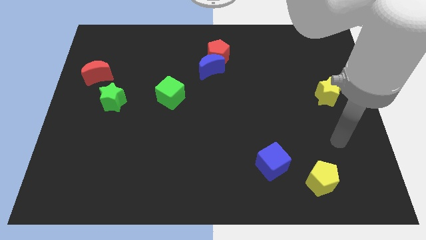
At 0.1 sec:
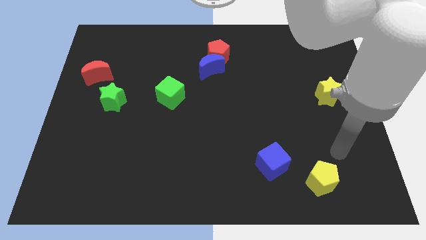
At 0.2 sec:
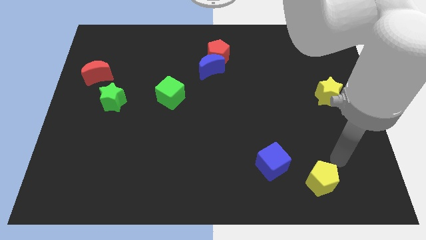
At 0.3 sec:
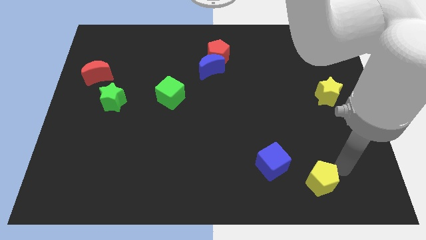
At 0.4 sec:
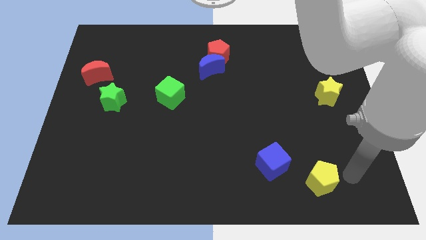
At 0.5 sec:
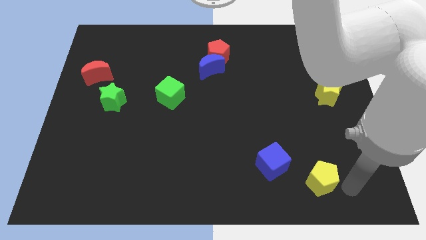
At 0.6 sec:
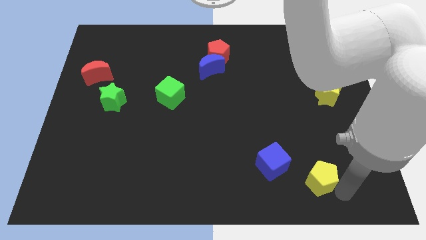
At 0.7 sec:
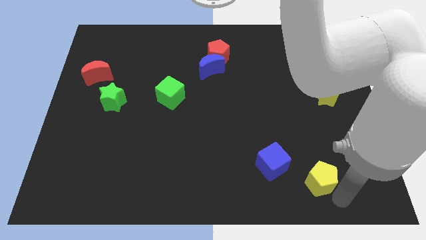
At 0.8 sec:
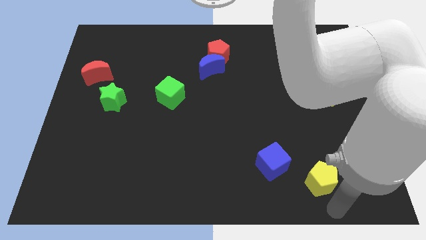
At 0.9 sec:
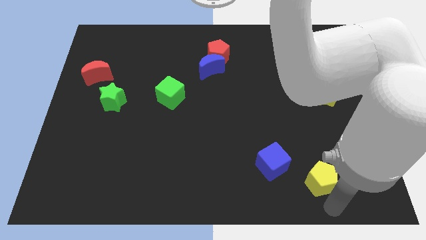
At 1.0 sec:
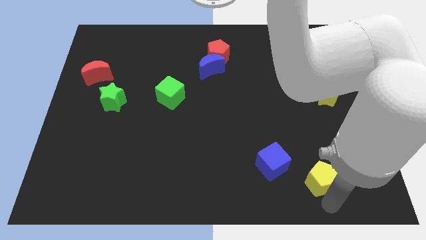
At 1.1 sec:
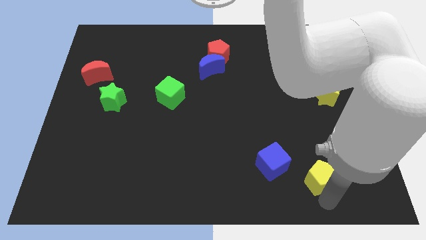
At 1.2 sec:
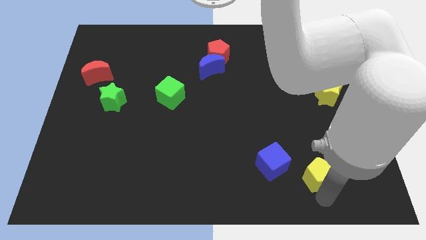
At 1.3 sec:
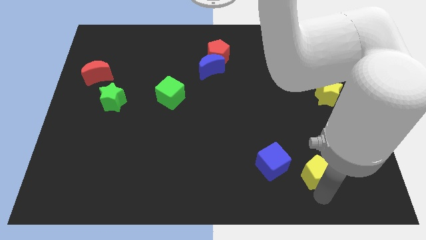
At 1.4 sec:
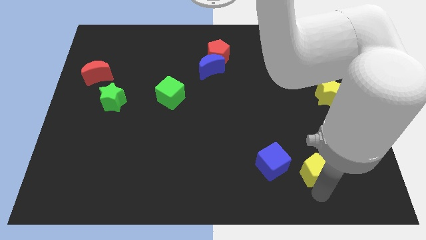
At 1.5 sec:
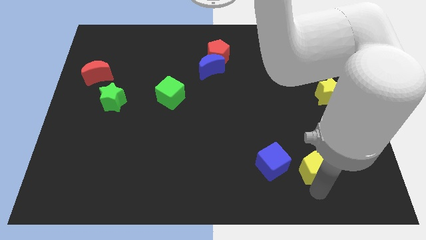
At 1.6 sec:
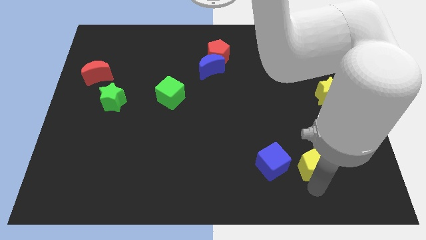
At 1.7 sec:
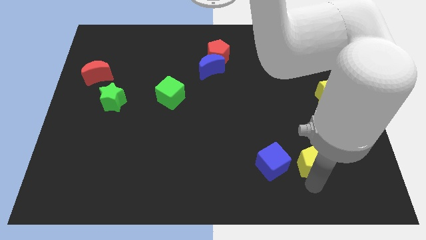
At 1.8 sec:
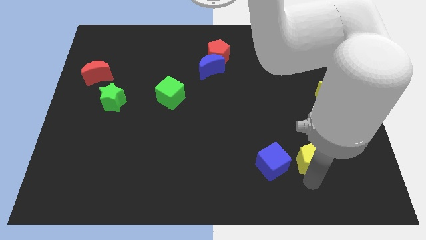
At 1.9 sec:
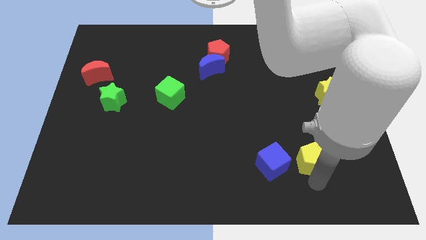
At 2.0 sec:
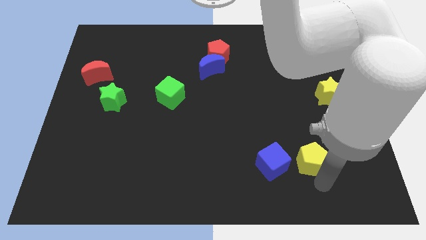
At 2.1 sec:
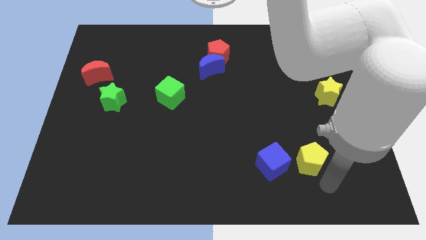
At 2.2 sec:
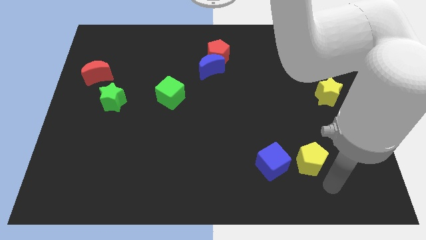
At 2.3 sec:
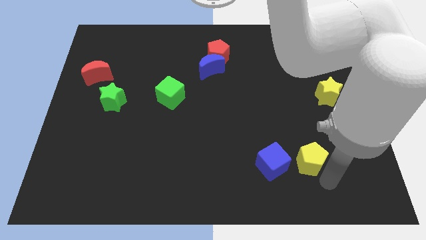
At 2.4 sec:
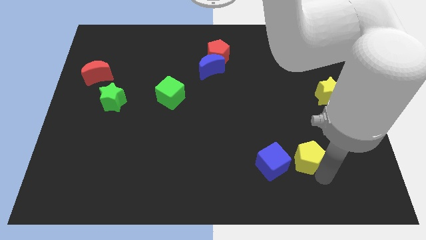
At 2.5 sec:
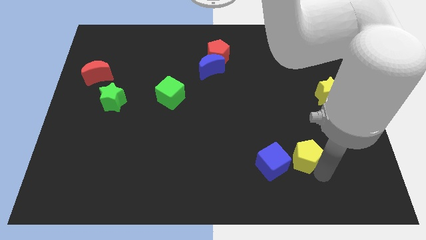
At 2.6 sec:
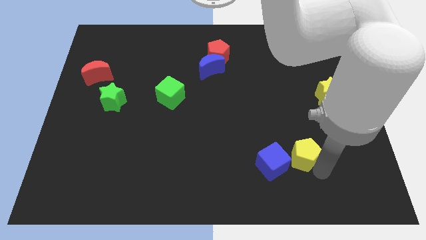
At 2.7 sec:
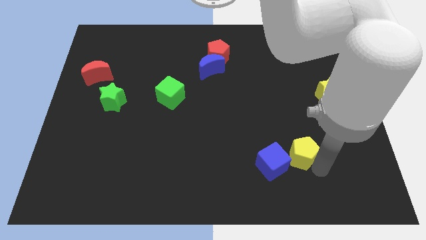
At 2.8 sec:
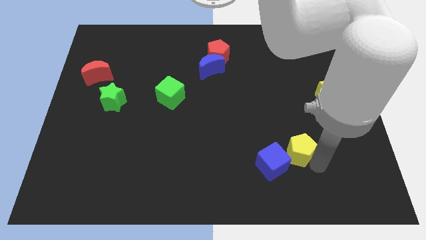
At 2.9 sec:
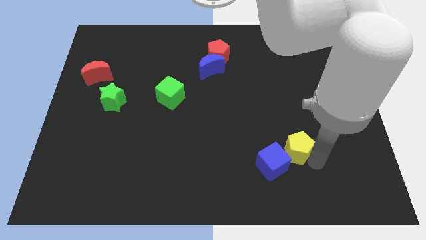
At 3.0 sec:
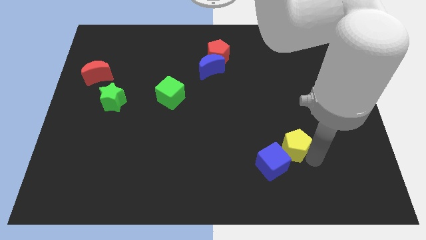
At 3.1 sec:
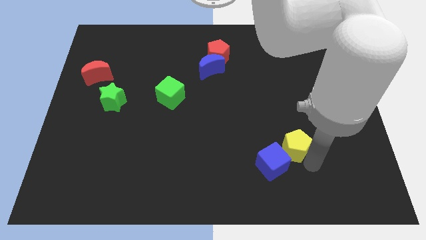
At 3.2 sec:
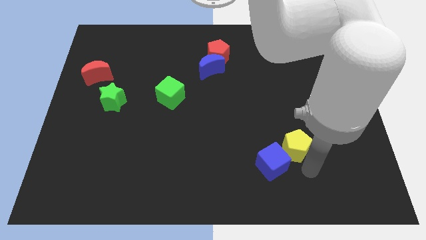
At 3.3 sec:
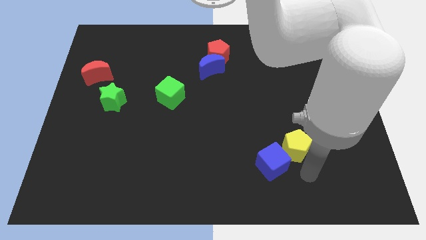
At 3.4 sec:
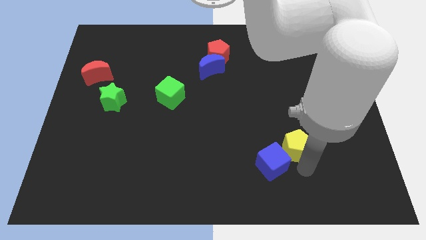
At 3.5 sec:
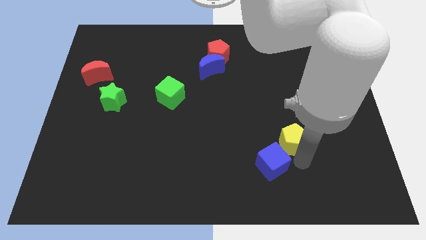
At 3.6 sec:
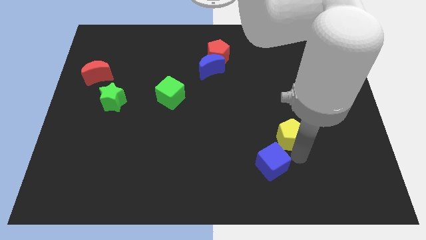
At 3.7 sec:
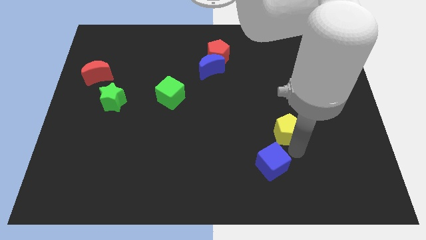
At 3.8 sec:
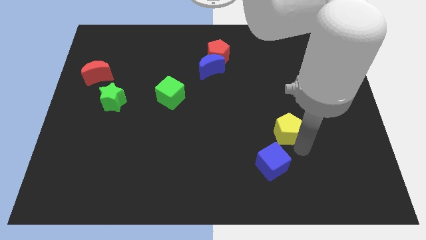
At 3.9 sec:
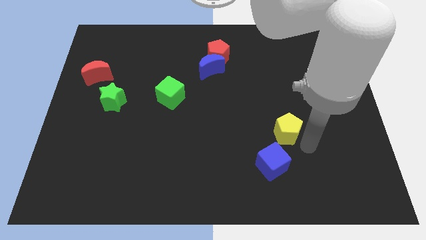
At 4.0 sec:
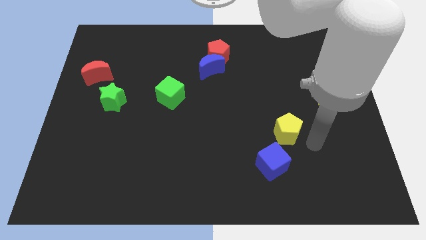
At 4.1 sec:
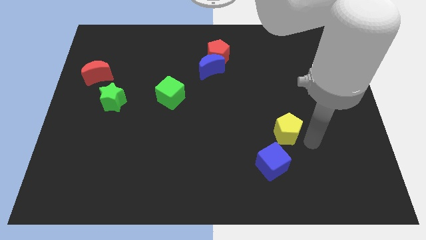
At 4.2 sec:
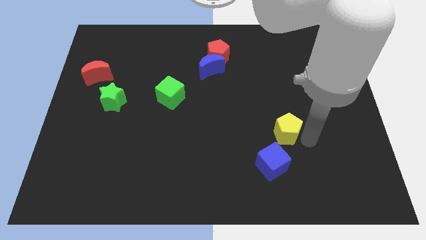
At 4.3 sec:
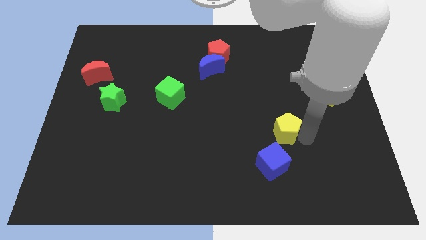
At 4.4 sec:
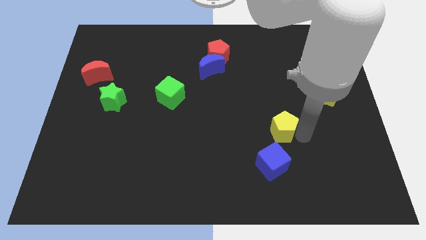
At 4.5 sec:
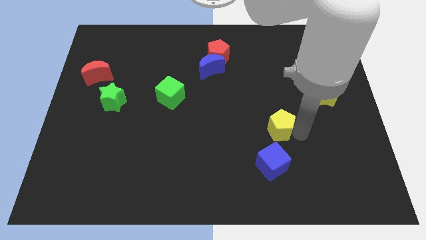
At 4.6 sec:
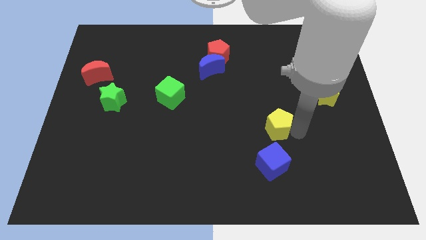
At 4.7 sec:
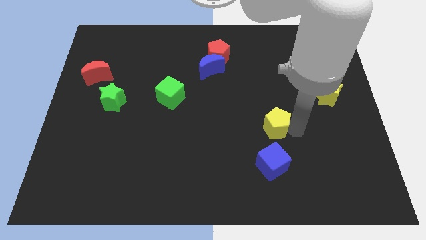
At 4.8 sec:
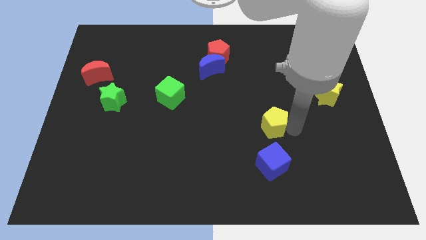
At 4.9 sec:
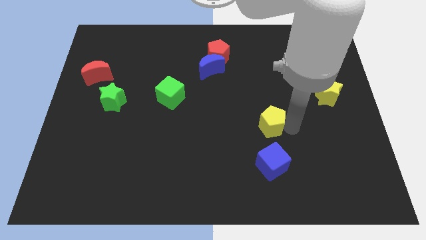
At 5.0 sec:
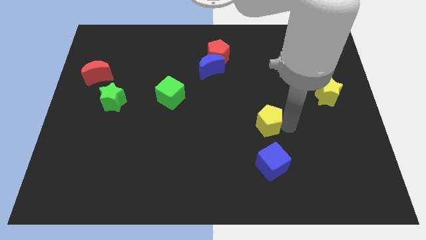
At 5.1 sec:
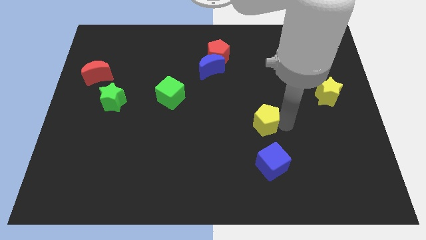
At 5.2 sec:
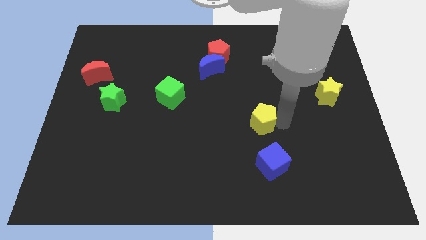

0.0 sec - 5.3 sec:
move the yellow pentagon to the center of the board

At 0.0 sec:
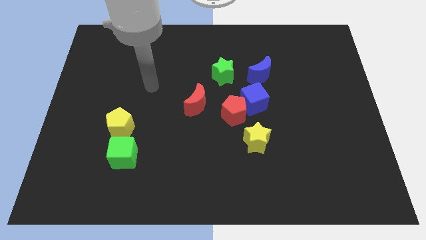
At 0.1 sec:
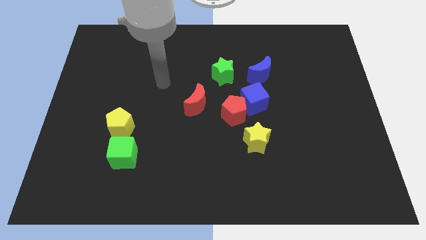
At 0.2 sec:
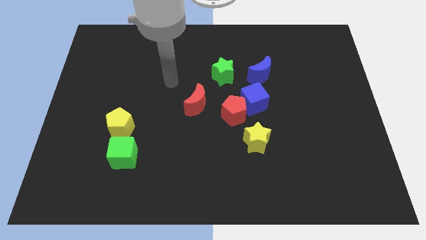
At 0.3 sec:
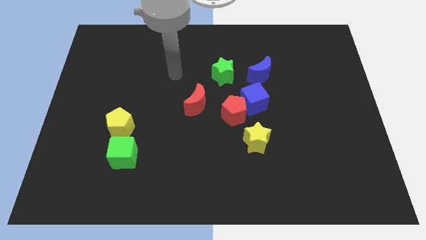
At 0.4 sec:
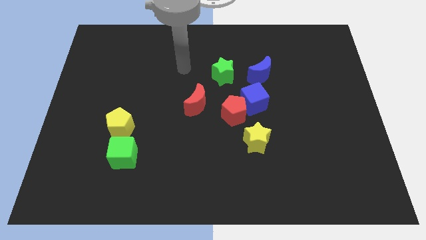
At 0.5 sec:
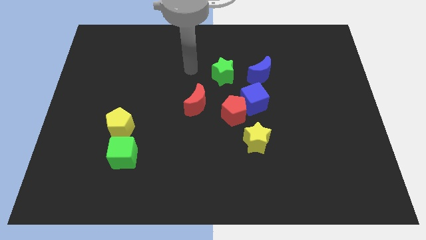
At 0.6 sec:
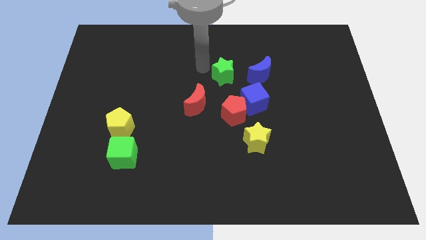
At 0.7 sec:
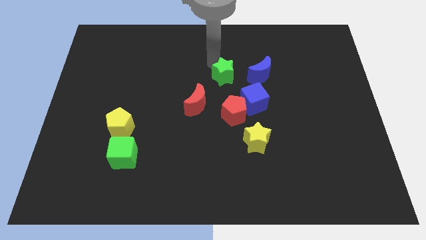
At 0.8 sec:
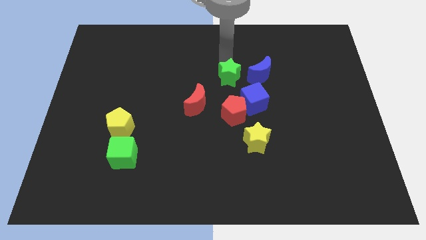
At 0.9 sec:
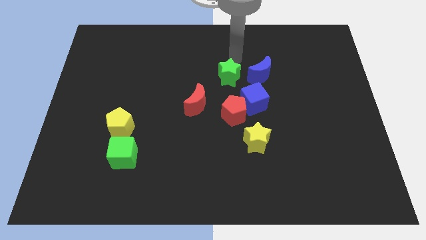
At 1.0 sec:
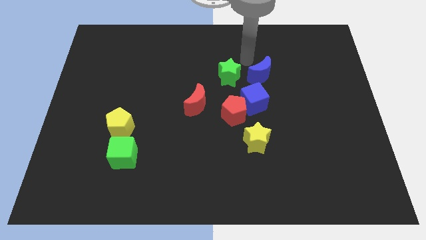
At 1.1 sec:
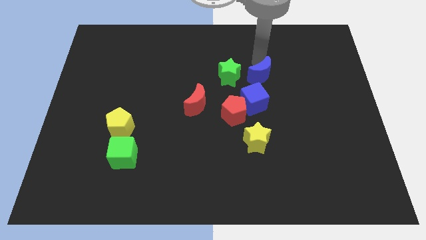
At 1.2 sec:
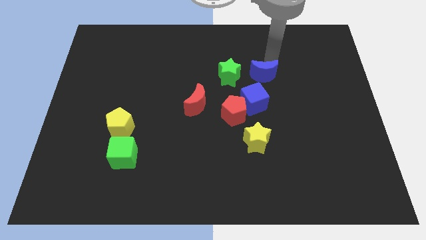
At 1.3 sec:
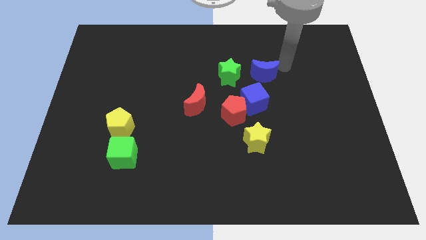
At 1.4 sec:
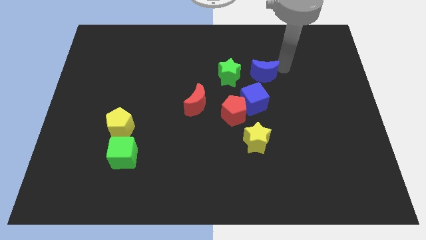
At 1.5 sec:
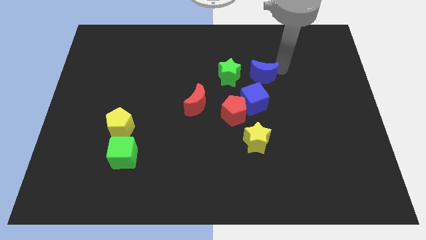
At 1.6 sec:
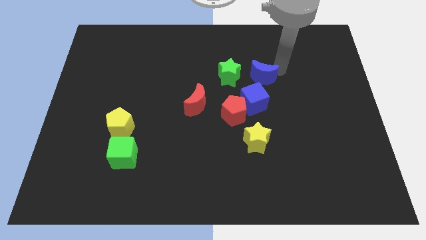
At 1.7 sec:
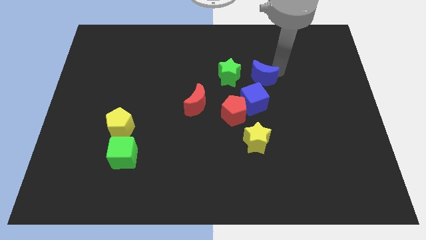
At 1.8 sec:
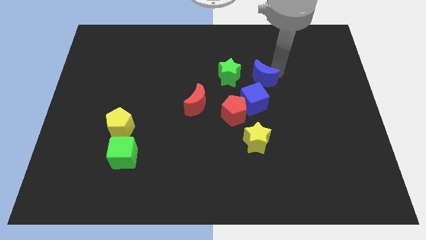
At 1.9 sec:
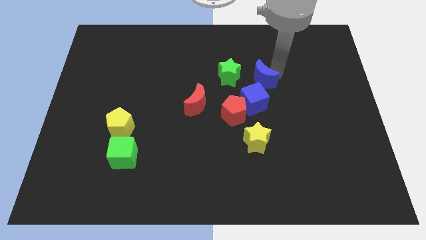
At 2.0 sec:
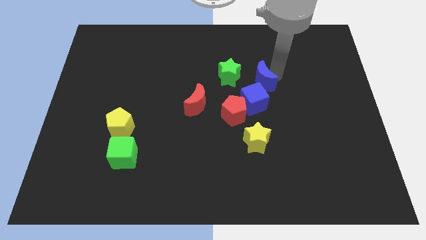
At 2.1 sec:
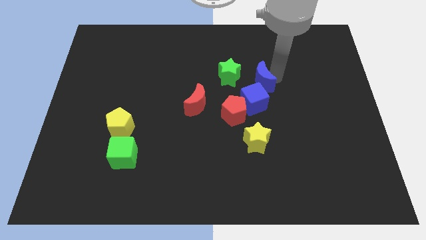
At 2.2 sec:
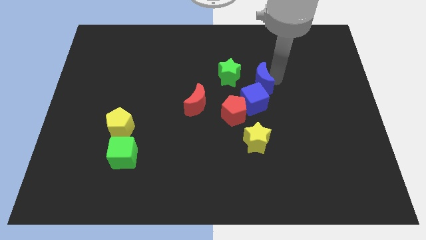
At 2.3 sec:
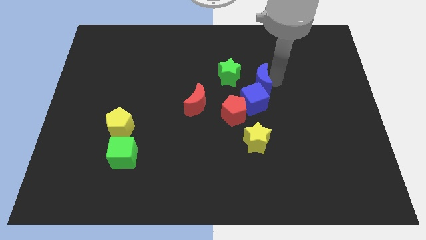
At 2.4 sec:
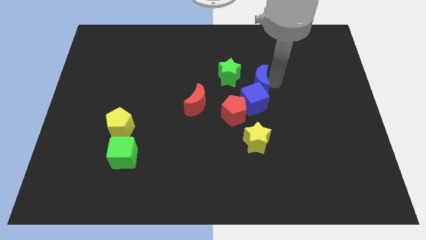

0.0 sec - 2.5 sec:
push the blue moon to the center of the board
